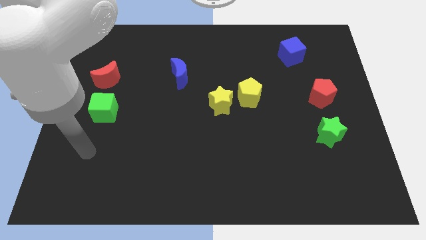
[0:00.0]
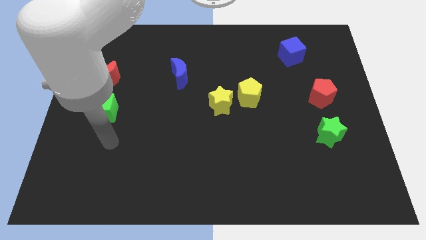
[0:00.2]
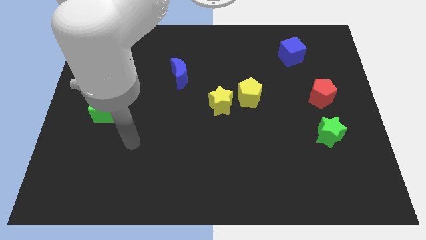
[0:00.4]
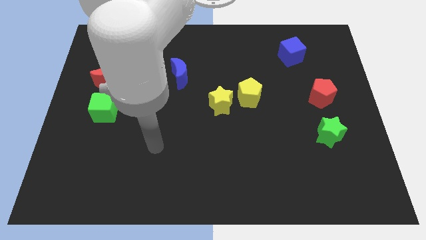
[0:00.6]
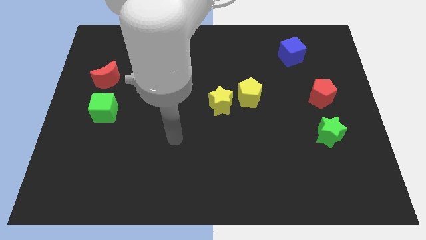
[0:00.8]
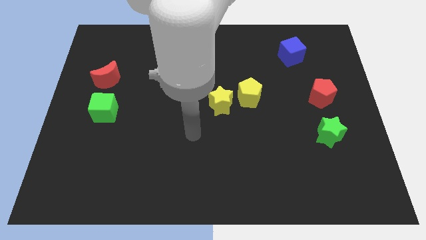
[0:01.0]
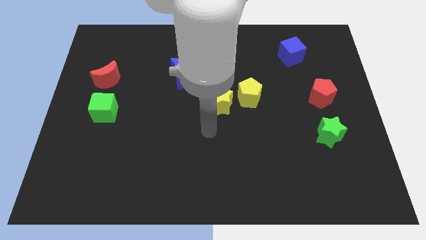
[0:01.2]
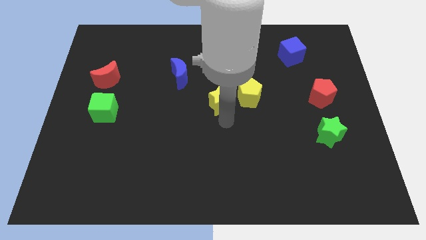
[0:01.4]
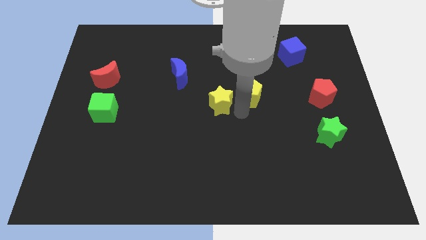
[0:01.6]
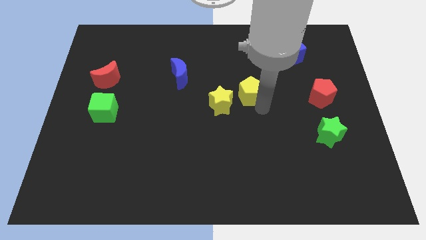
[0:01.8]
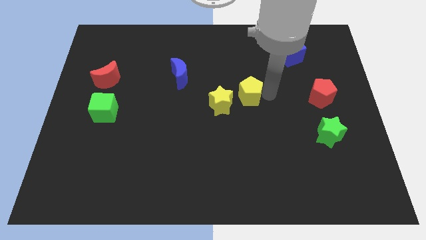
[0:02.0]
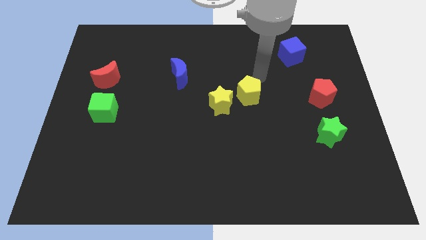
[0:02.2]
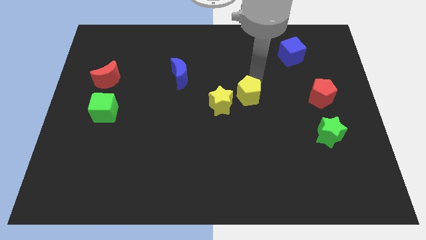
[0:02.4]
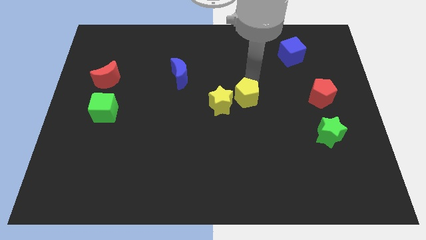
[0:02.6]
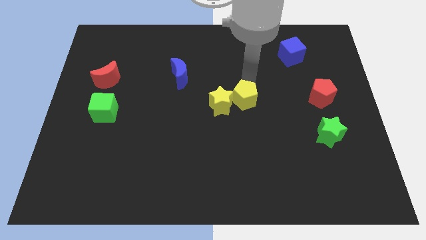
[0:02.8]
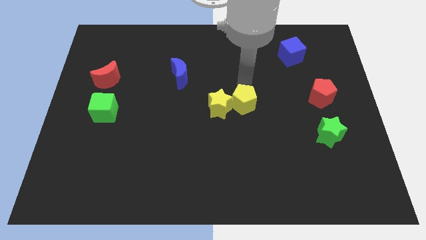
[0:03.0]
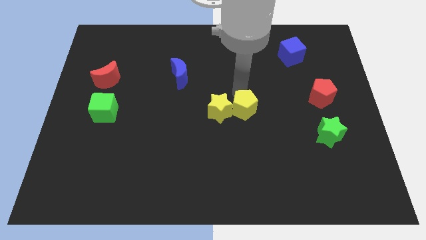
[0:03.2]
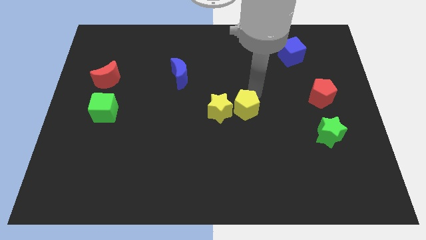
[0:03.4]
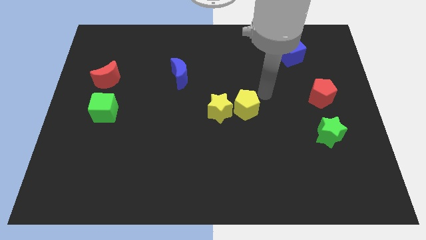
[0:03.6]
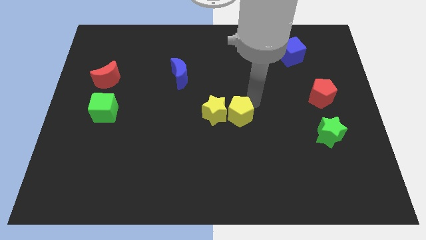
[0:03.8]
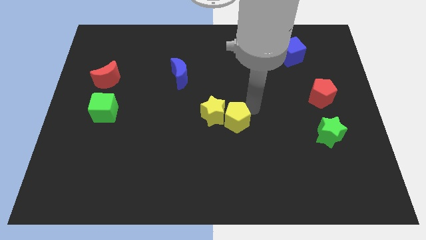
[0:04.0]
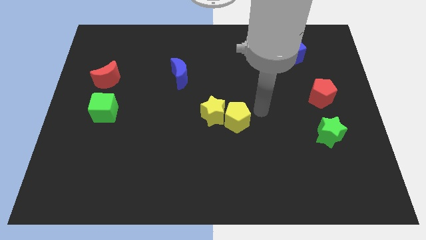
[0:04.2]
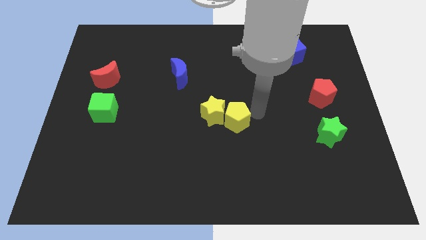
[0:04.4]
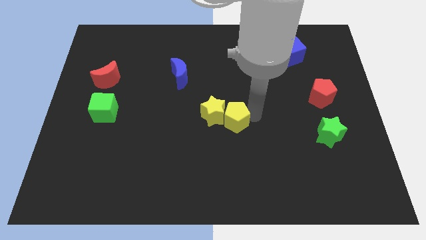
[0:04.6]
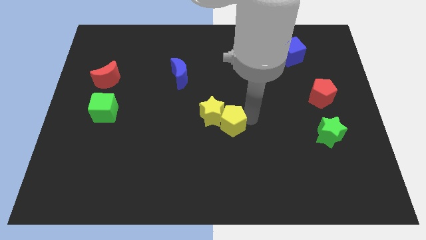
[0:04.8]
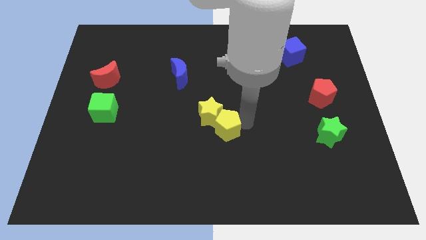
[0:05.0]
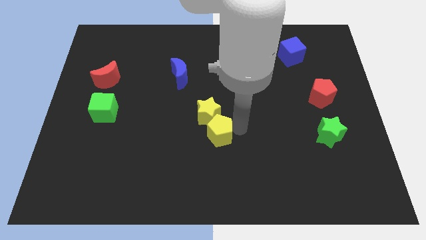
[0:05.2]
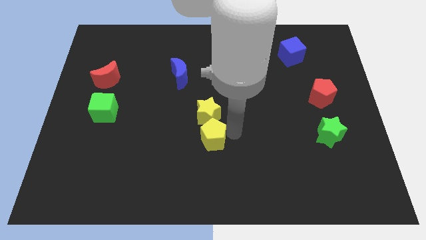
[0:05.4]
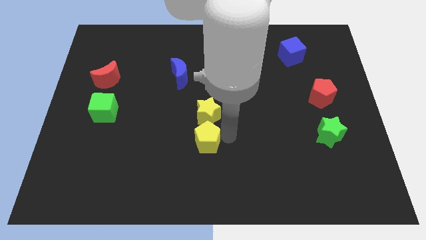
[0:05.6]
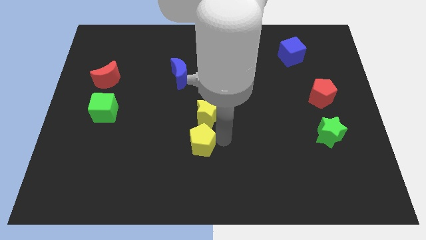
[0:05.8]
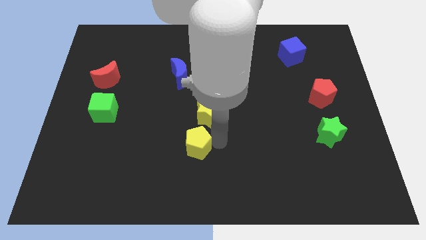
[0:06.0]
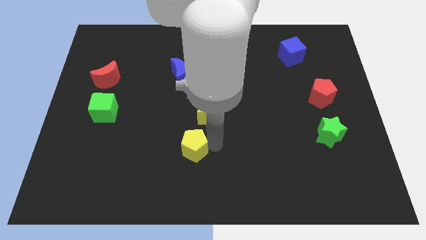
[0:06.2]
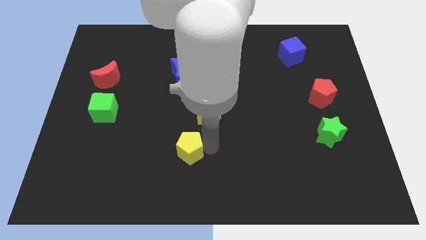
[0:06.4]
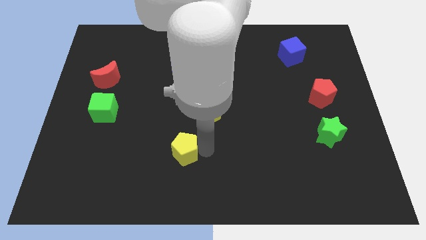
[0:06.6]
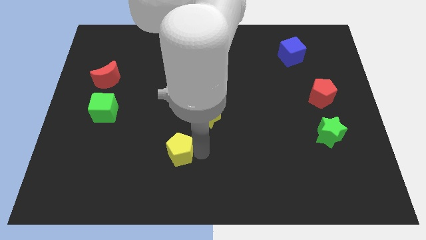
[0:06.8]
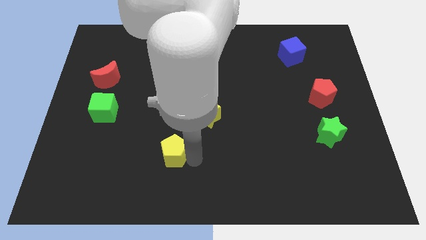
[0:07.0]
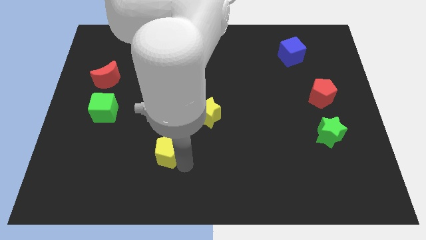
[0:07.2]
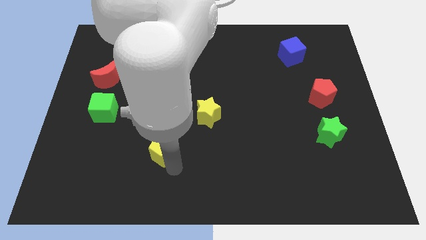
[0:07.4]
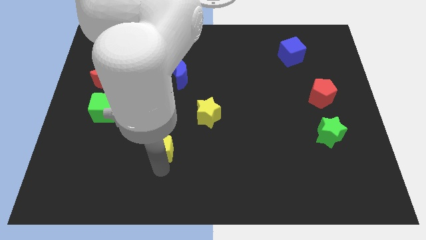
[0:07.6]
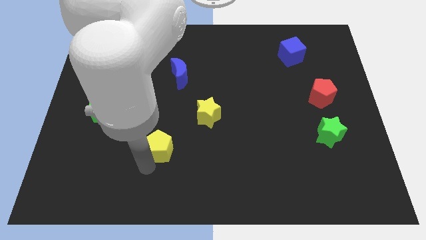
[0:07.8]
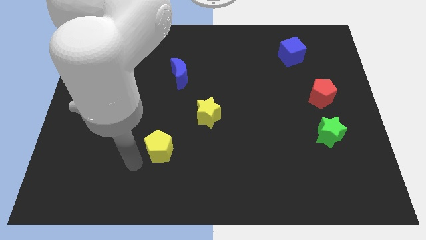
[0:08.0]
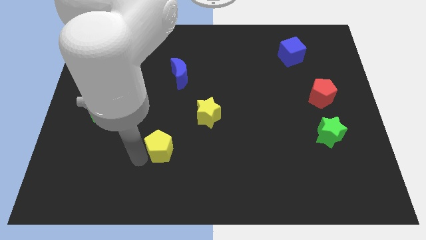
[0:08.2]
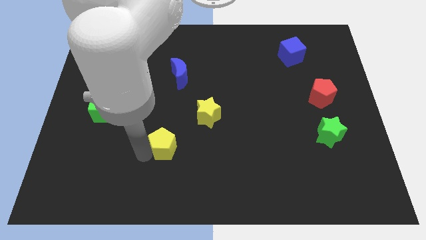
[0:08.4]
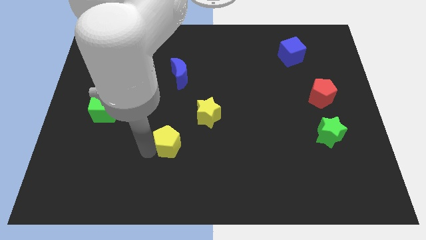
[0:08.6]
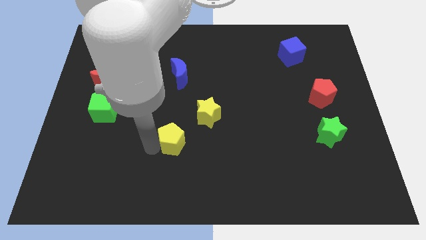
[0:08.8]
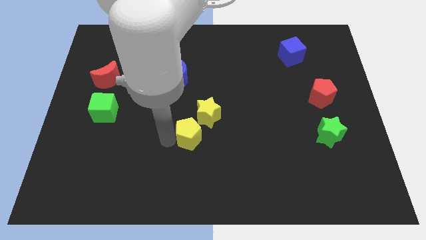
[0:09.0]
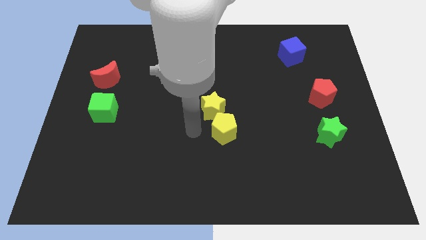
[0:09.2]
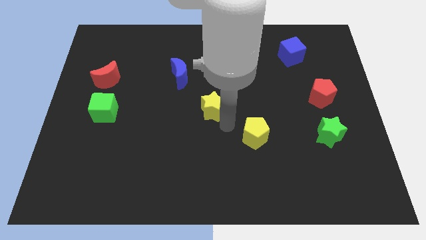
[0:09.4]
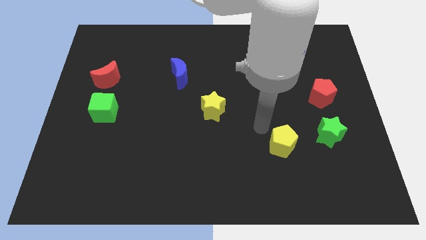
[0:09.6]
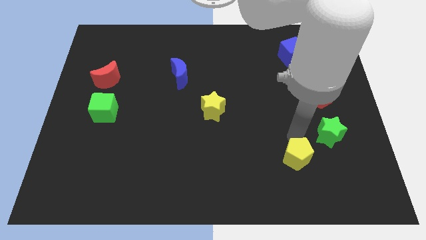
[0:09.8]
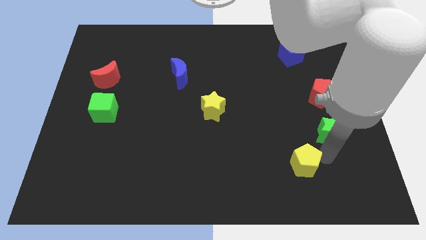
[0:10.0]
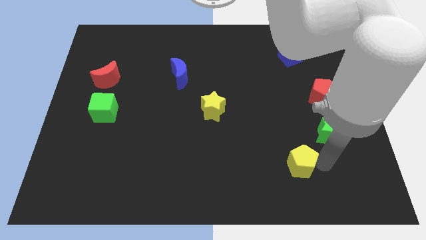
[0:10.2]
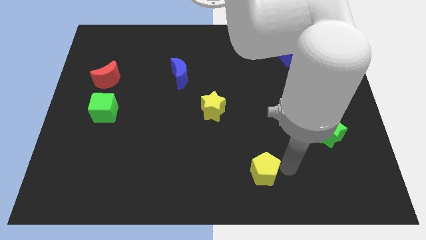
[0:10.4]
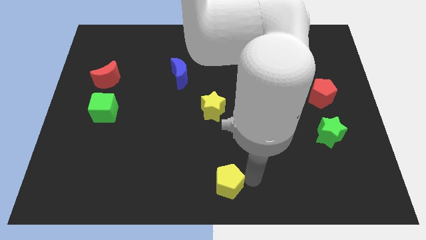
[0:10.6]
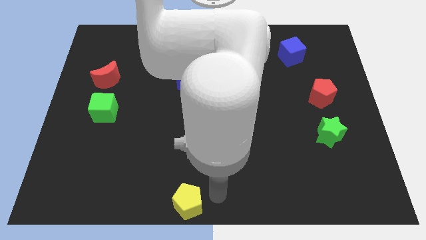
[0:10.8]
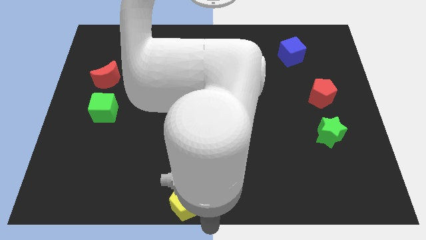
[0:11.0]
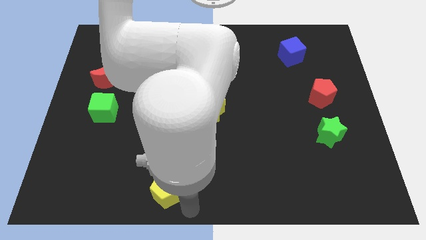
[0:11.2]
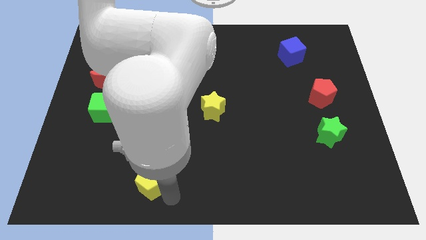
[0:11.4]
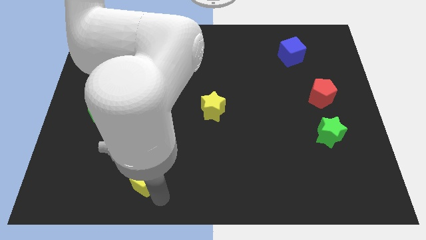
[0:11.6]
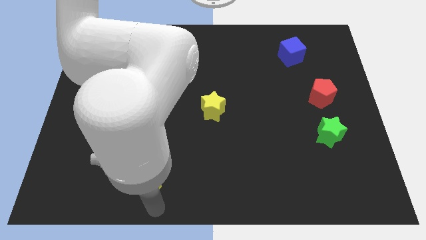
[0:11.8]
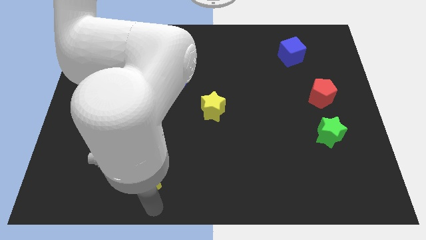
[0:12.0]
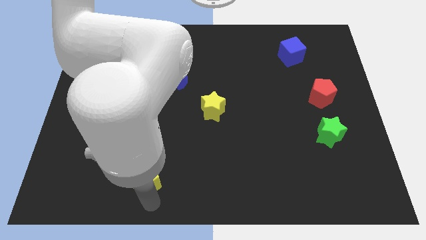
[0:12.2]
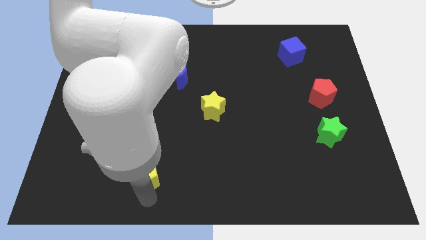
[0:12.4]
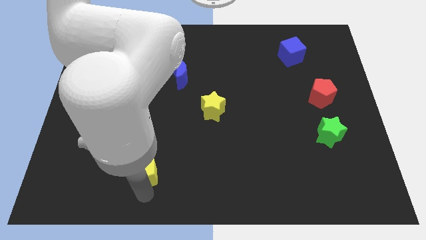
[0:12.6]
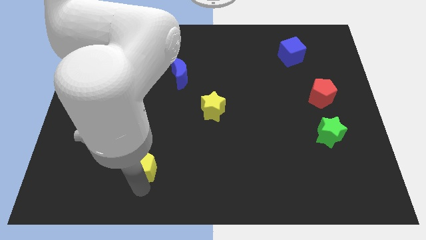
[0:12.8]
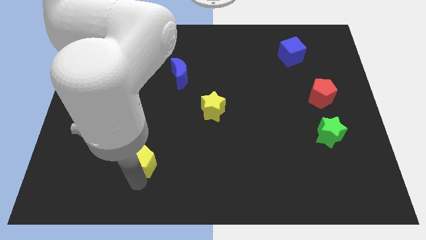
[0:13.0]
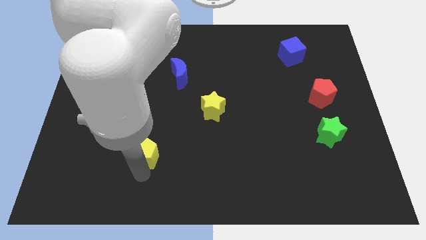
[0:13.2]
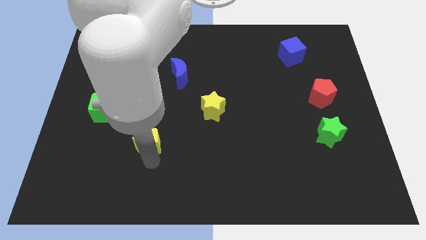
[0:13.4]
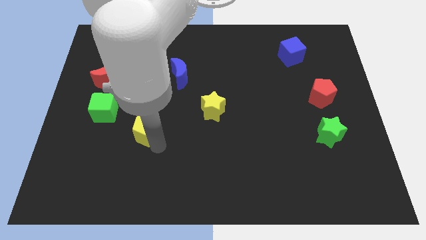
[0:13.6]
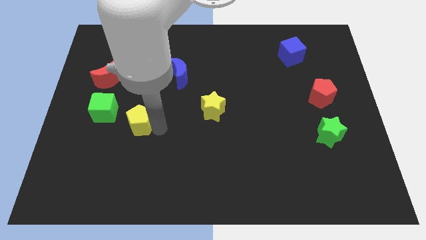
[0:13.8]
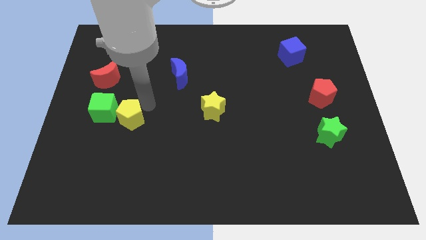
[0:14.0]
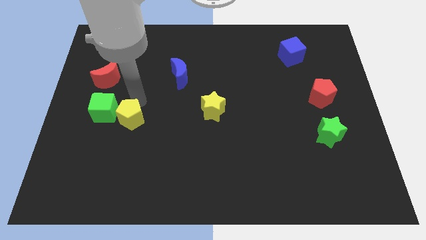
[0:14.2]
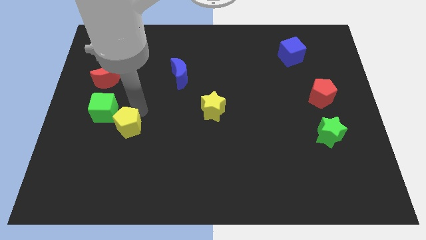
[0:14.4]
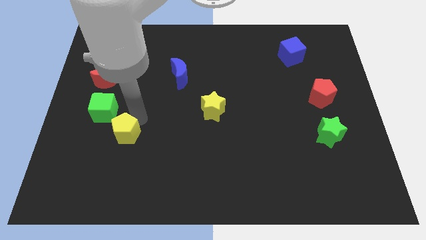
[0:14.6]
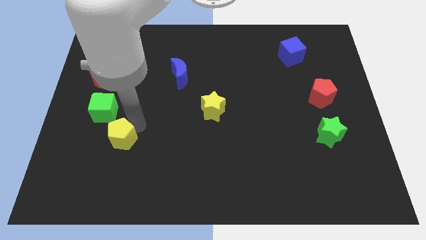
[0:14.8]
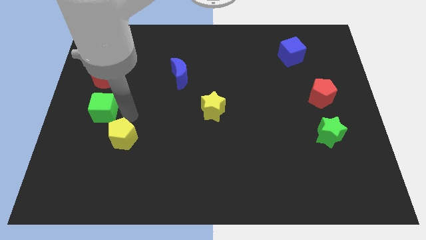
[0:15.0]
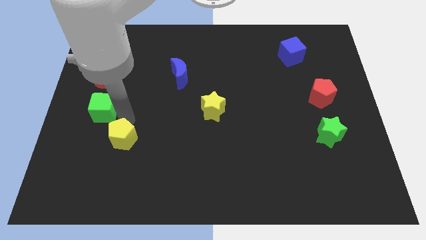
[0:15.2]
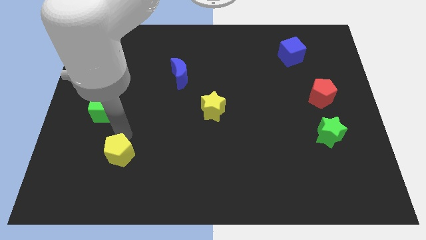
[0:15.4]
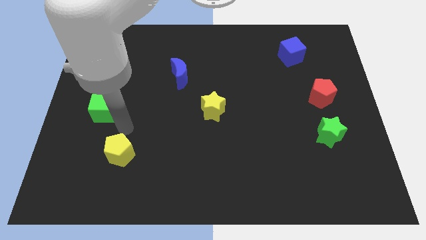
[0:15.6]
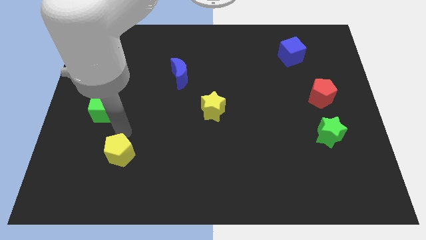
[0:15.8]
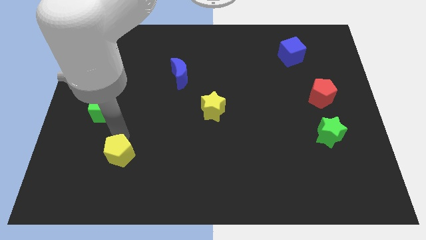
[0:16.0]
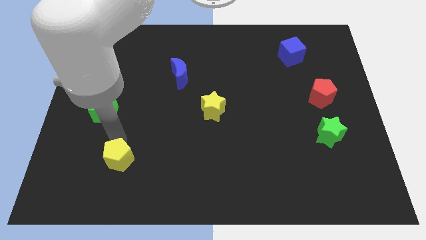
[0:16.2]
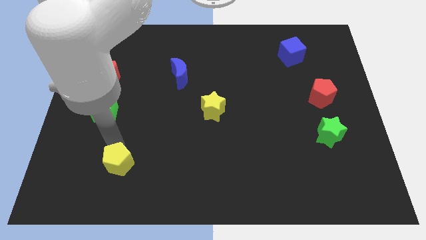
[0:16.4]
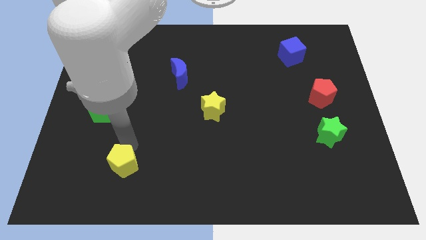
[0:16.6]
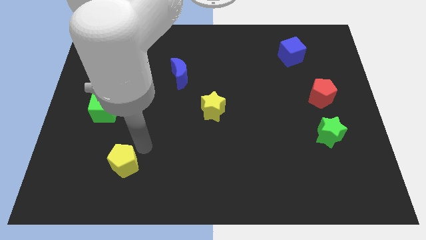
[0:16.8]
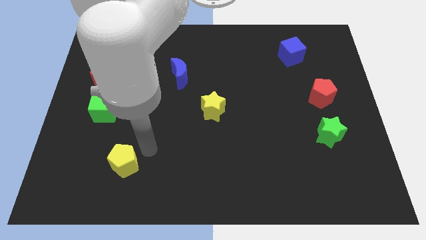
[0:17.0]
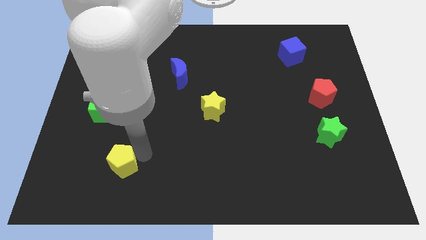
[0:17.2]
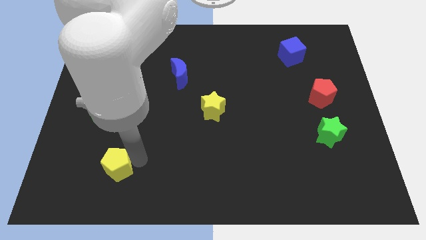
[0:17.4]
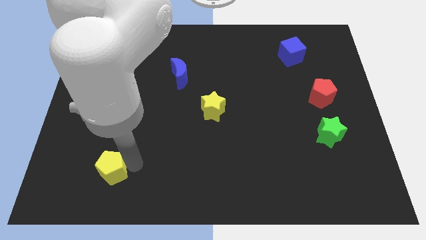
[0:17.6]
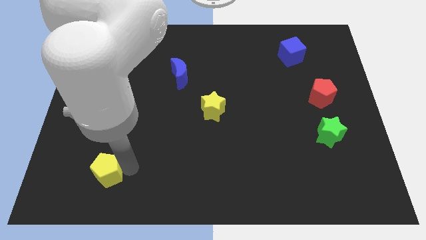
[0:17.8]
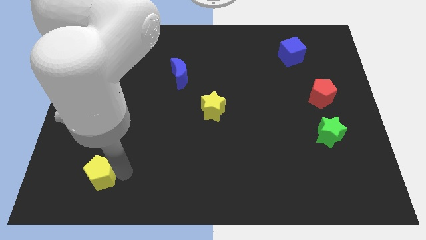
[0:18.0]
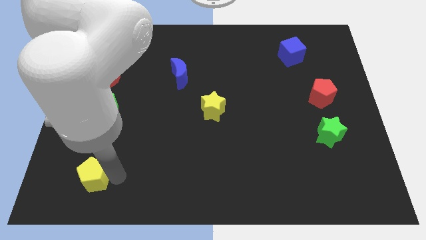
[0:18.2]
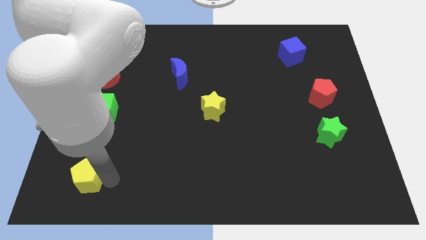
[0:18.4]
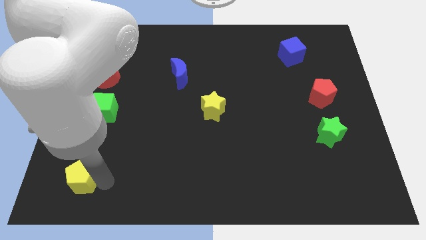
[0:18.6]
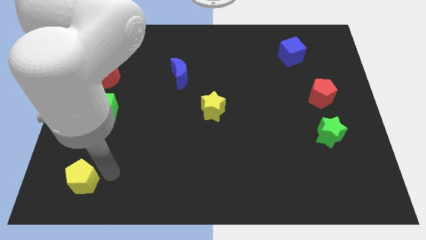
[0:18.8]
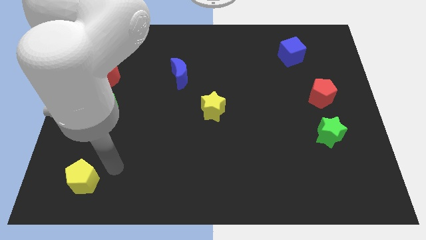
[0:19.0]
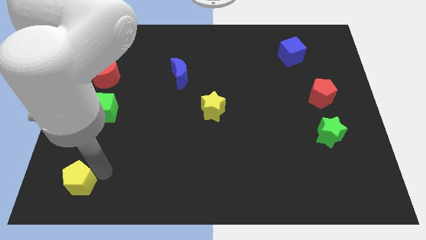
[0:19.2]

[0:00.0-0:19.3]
push the yellow pentagon to the bottom left corner
